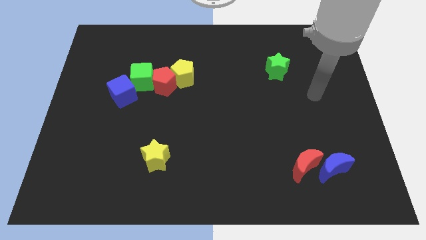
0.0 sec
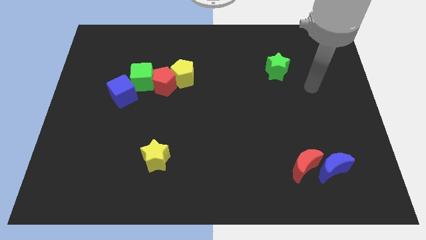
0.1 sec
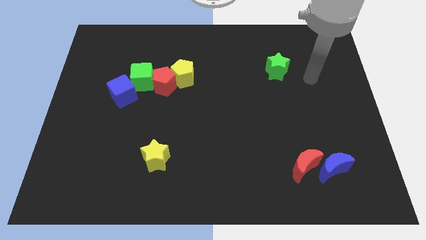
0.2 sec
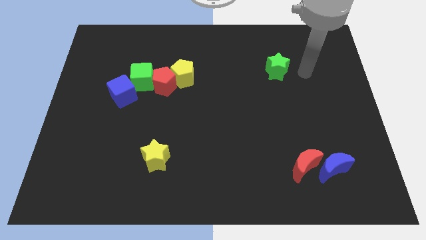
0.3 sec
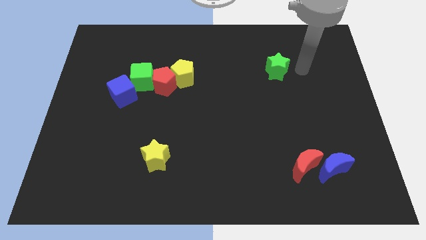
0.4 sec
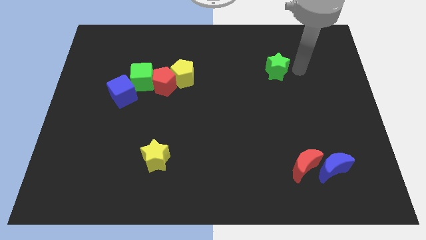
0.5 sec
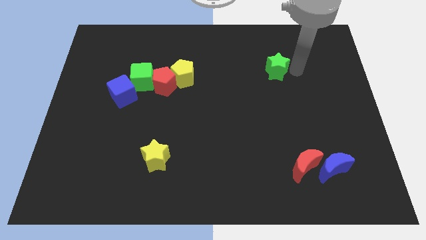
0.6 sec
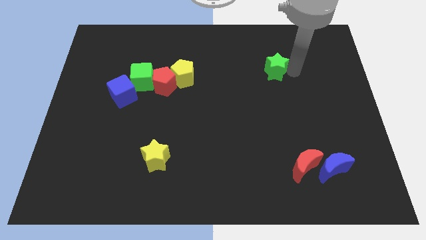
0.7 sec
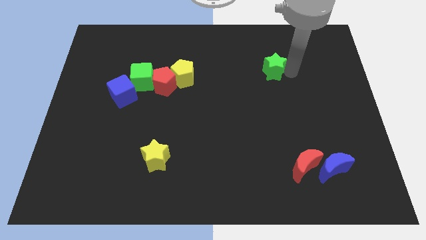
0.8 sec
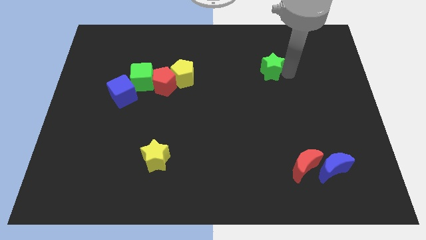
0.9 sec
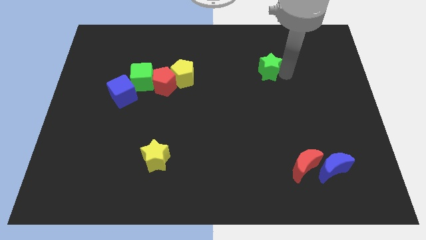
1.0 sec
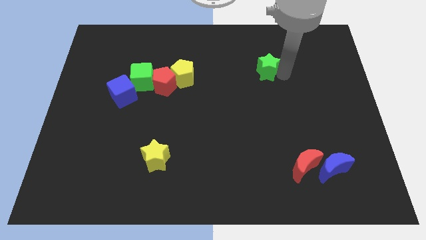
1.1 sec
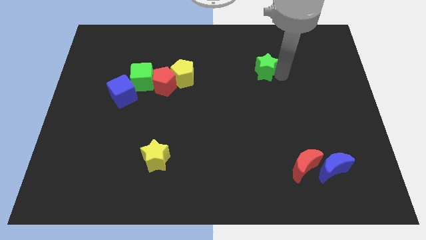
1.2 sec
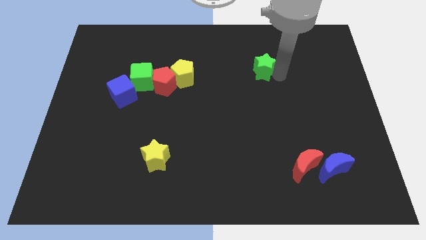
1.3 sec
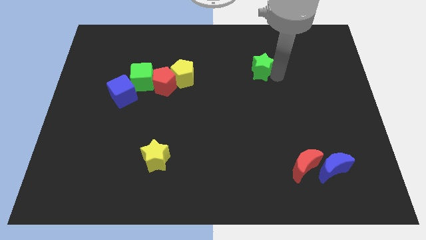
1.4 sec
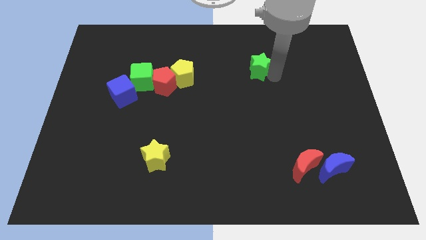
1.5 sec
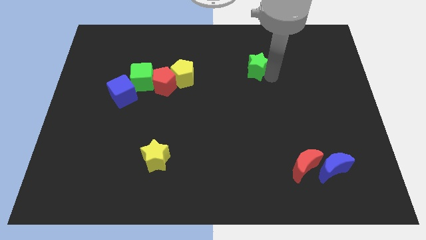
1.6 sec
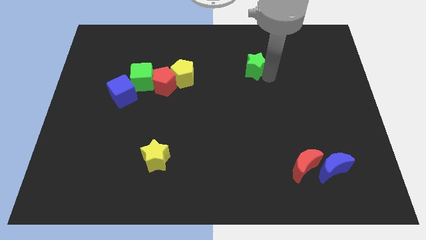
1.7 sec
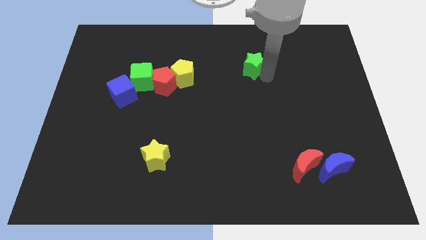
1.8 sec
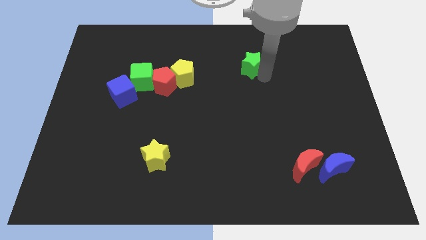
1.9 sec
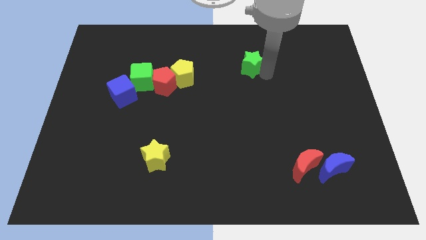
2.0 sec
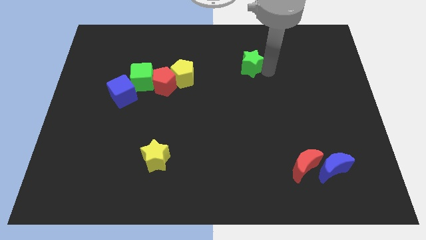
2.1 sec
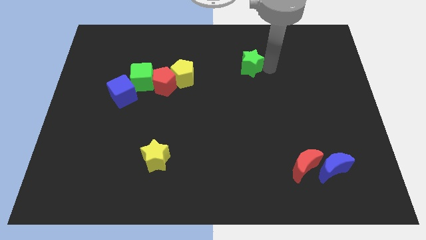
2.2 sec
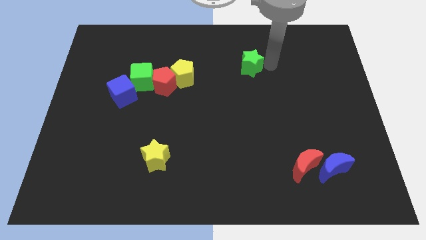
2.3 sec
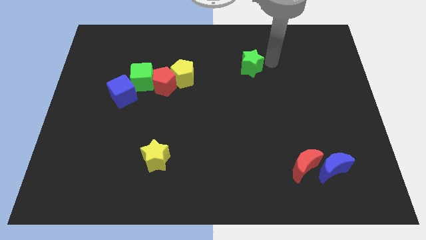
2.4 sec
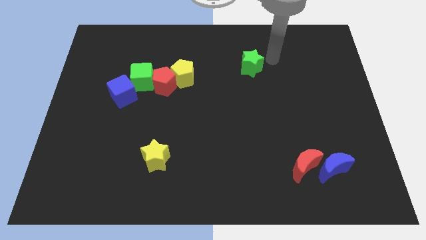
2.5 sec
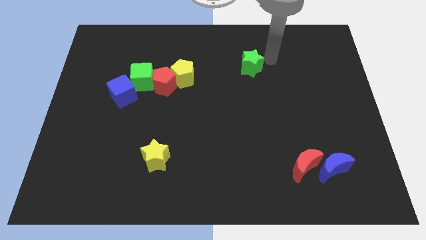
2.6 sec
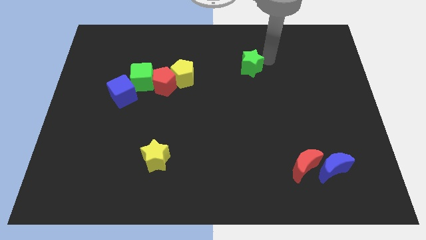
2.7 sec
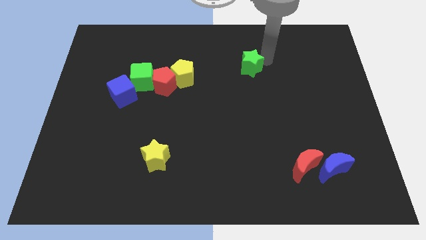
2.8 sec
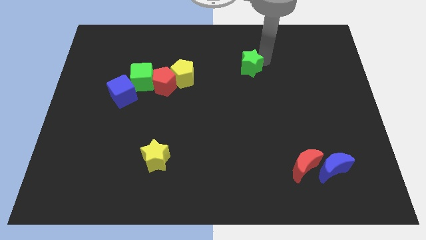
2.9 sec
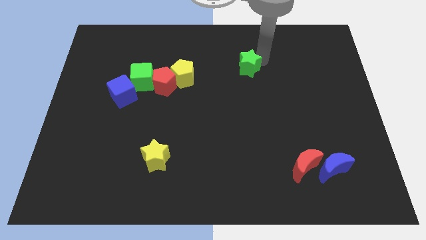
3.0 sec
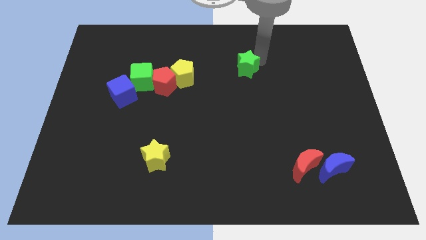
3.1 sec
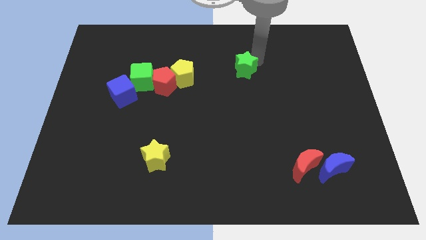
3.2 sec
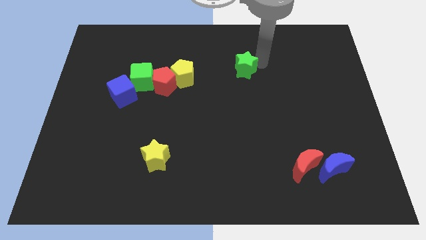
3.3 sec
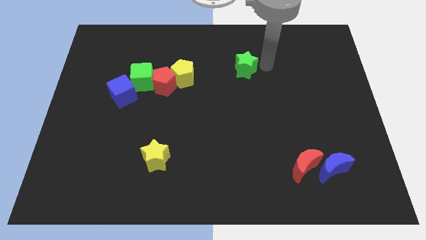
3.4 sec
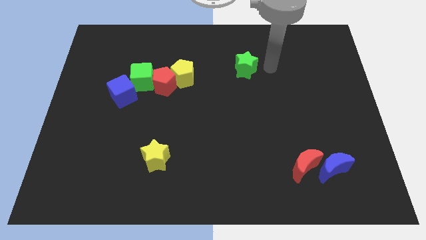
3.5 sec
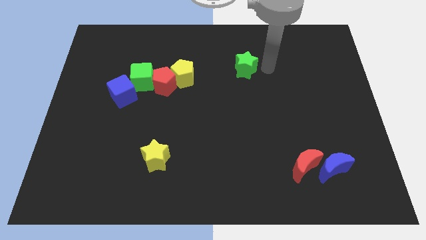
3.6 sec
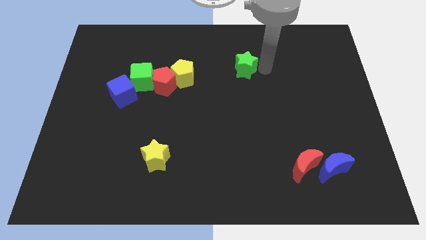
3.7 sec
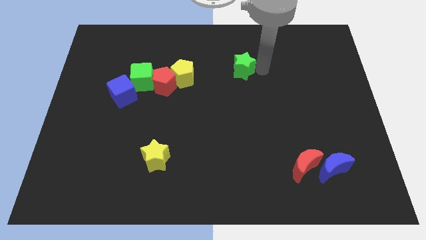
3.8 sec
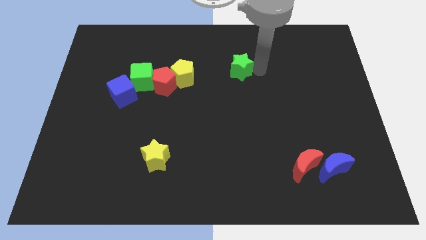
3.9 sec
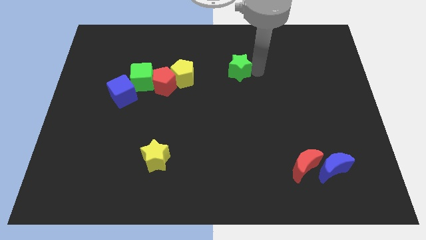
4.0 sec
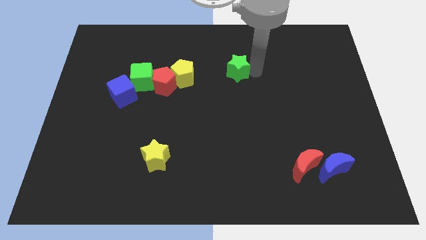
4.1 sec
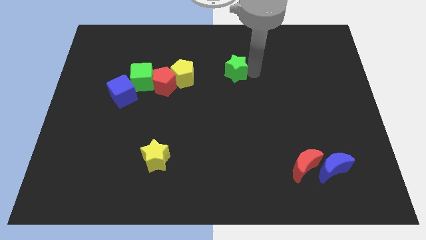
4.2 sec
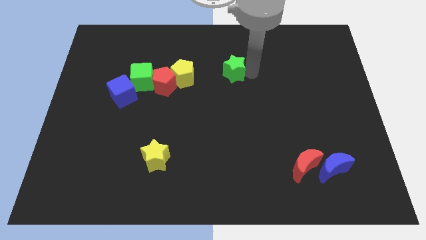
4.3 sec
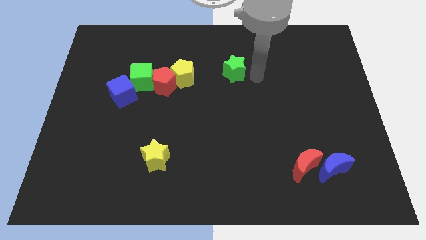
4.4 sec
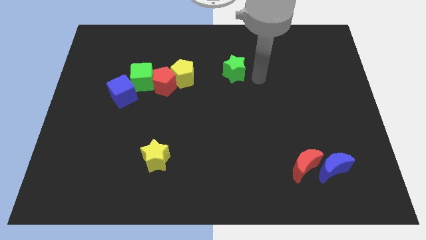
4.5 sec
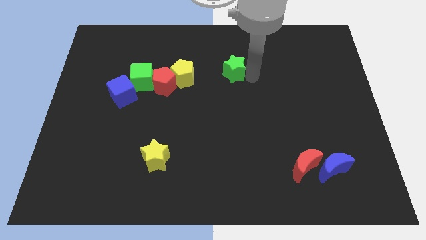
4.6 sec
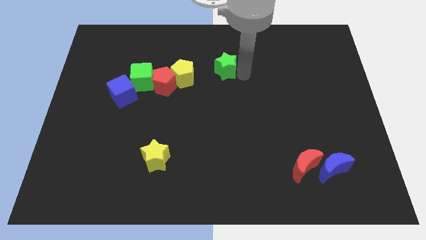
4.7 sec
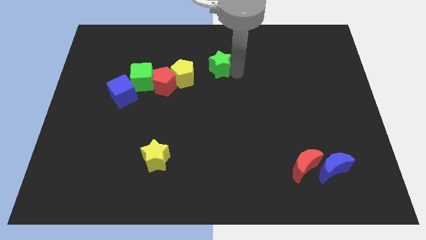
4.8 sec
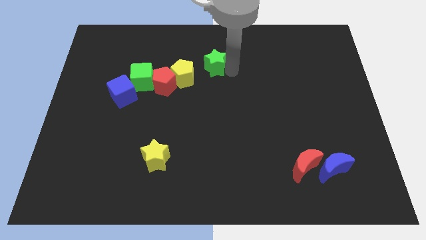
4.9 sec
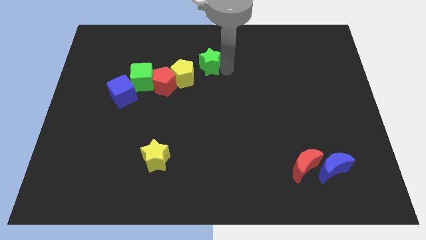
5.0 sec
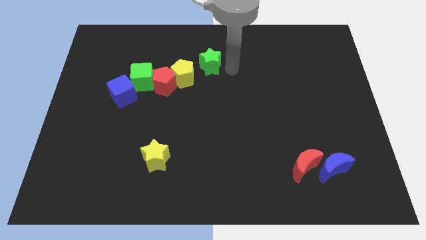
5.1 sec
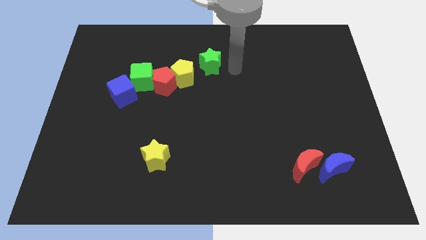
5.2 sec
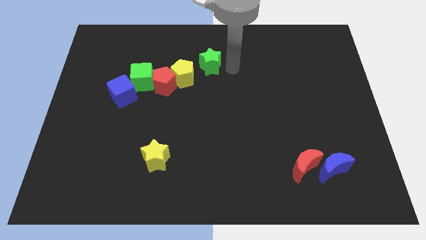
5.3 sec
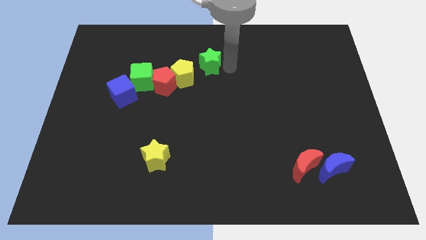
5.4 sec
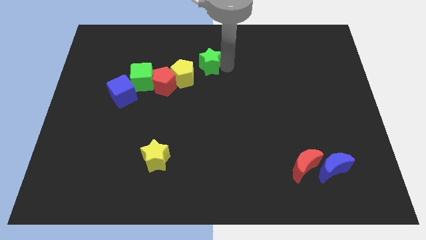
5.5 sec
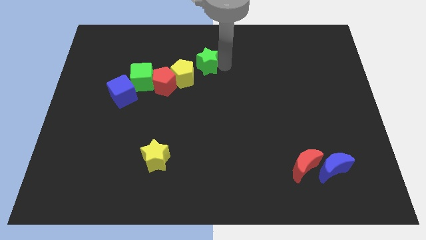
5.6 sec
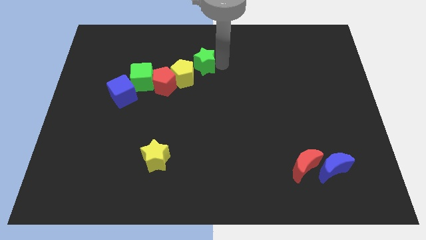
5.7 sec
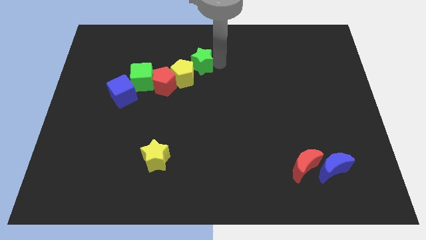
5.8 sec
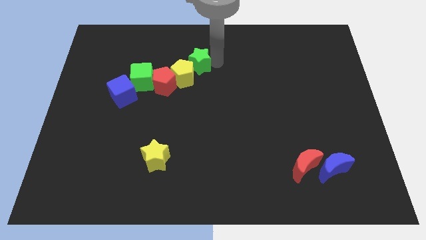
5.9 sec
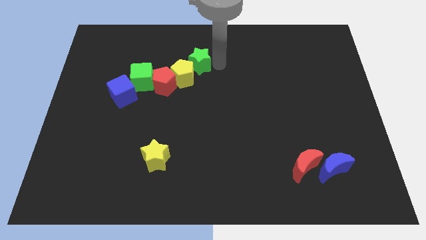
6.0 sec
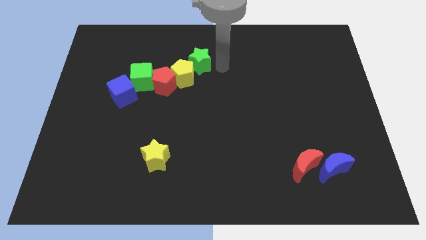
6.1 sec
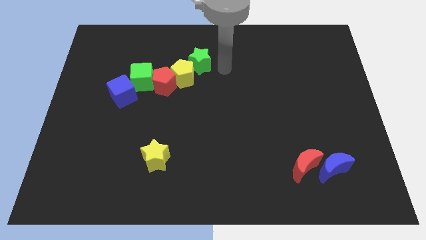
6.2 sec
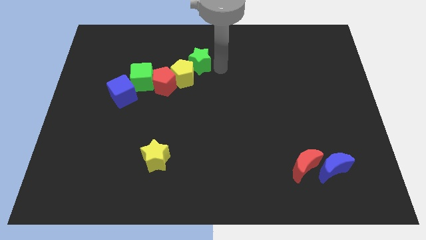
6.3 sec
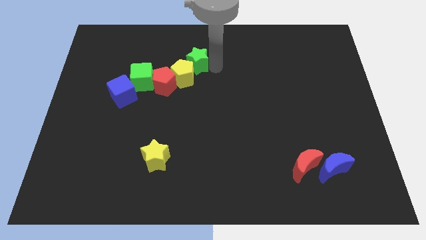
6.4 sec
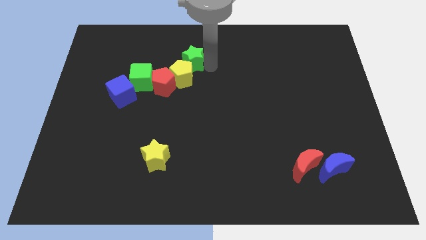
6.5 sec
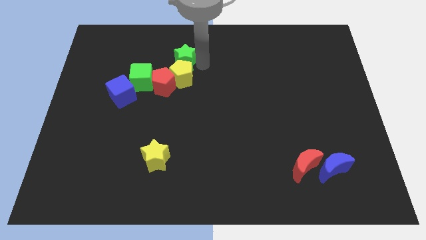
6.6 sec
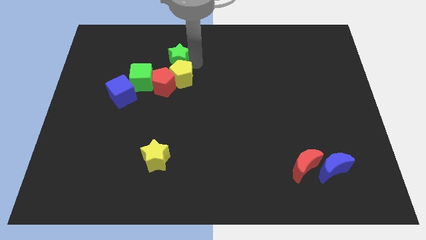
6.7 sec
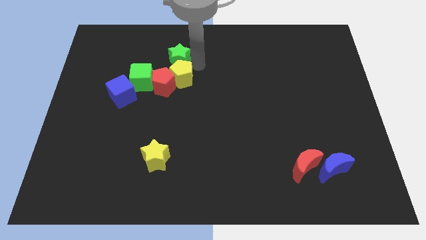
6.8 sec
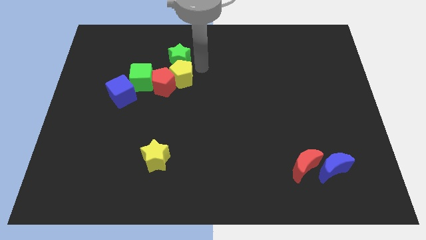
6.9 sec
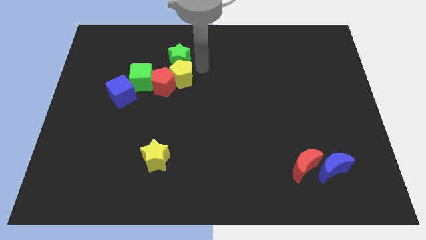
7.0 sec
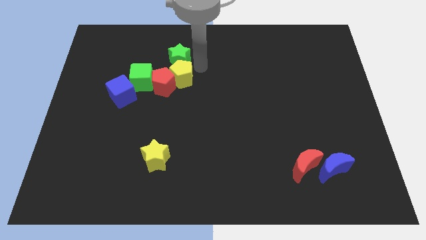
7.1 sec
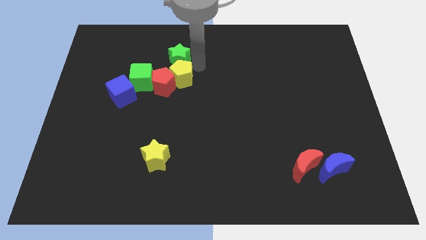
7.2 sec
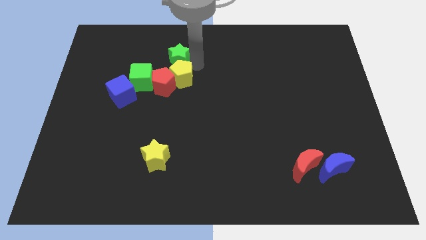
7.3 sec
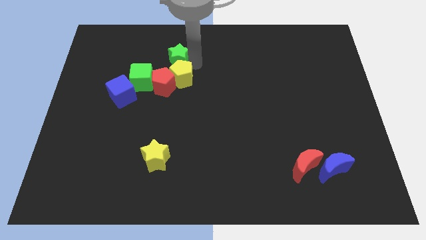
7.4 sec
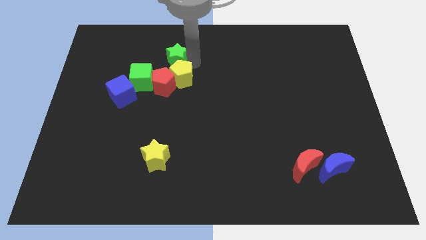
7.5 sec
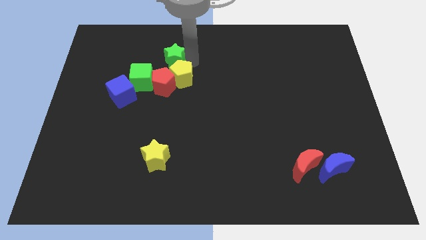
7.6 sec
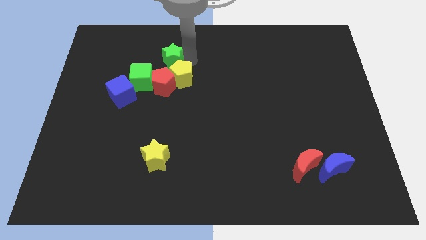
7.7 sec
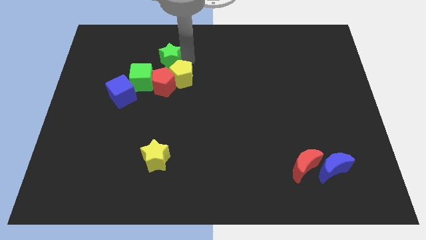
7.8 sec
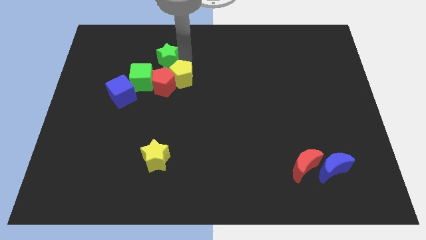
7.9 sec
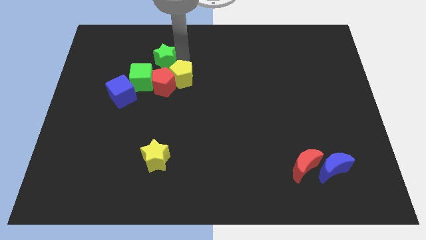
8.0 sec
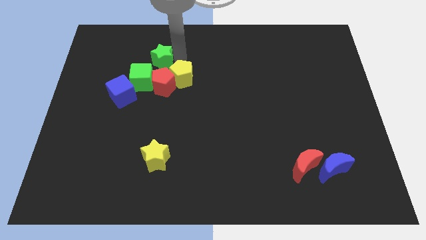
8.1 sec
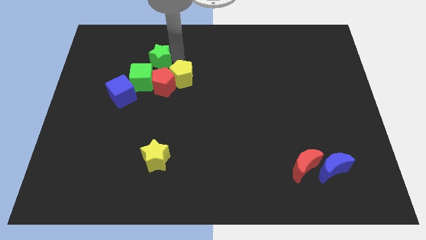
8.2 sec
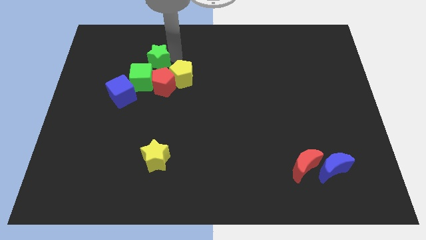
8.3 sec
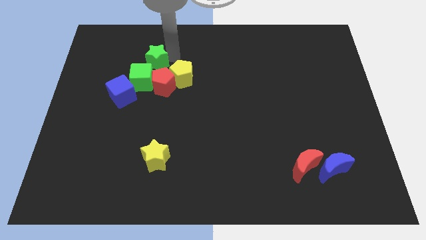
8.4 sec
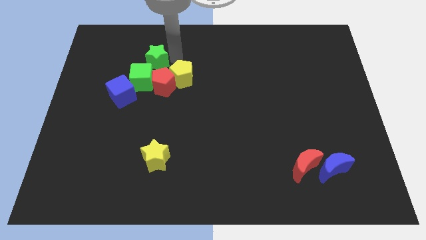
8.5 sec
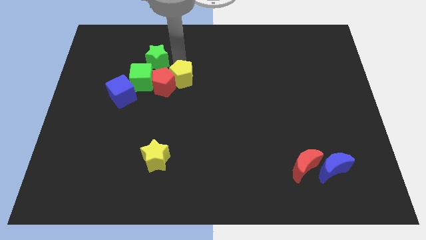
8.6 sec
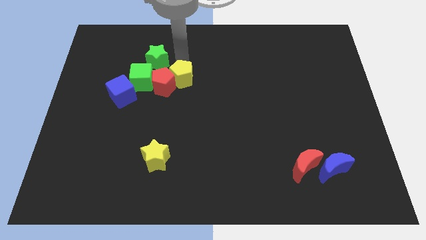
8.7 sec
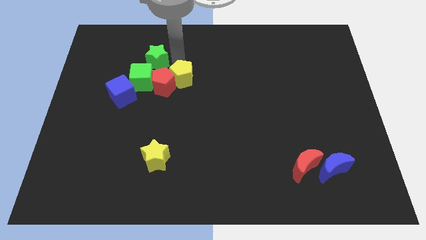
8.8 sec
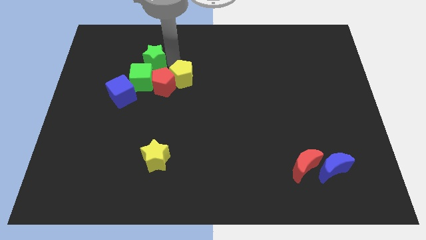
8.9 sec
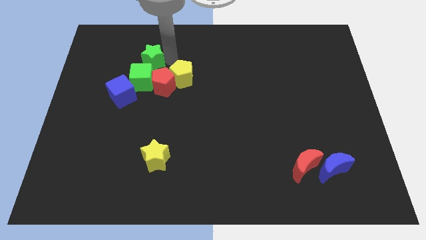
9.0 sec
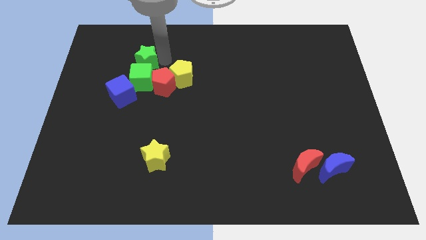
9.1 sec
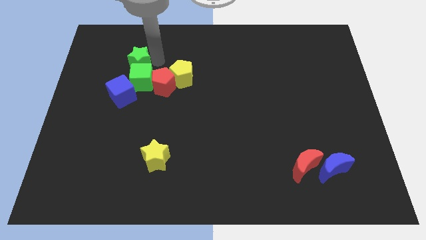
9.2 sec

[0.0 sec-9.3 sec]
push the green star to the left of the yellow pentagon
